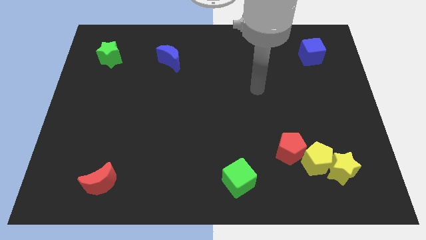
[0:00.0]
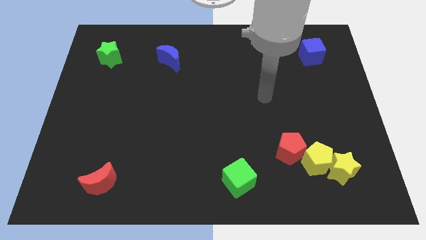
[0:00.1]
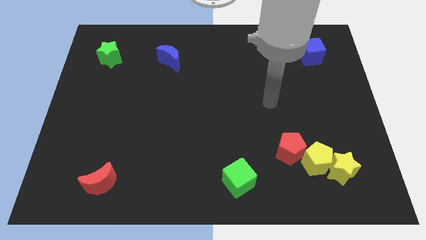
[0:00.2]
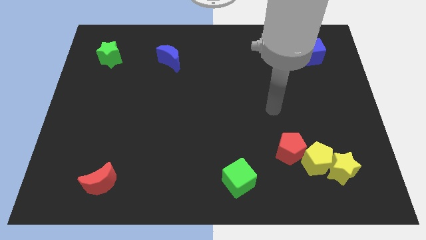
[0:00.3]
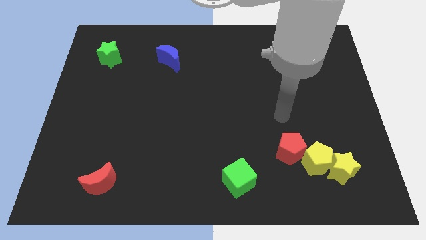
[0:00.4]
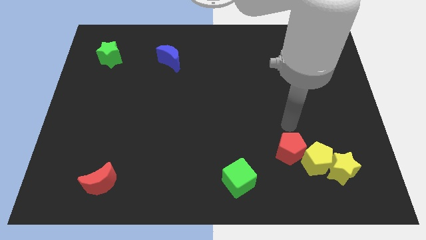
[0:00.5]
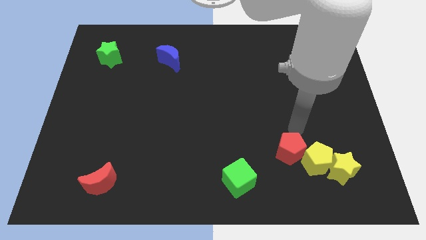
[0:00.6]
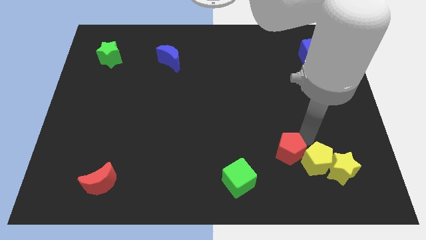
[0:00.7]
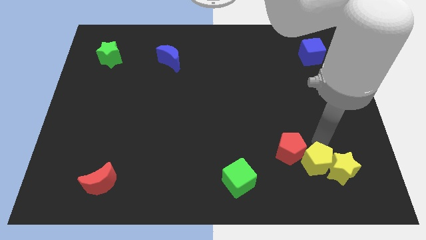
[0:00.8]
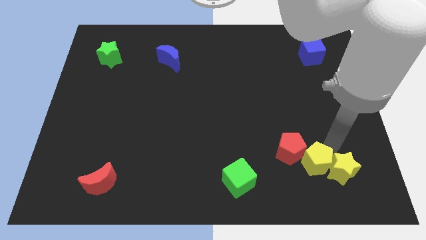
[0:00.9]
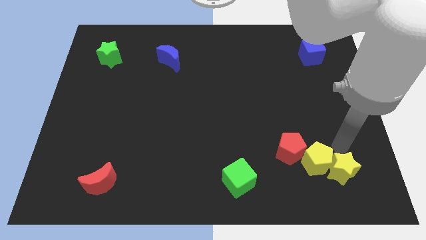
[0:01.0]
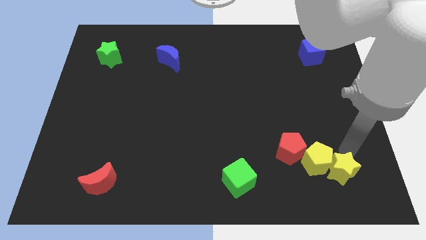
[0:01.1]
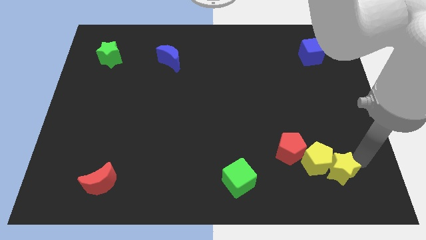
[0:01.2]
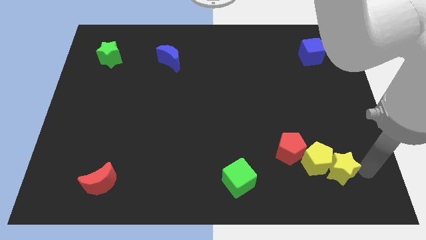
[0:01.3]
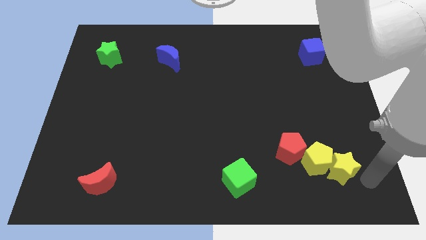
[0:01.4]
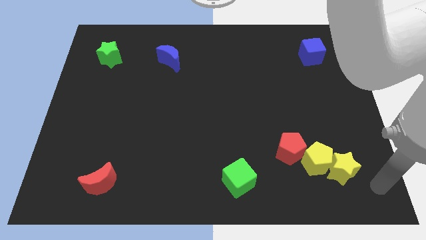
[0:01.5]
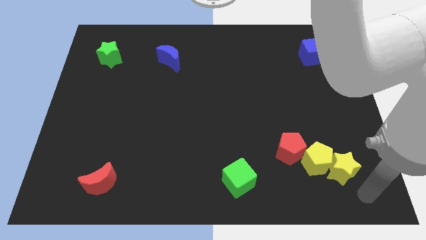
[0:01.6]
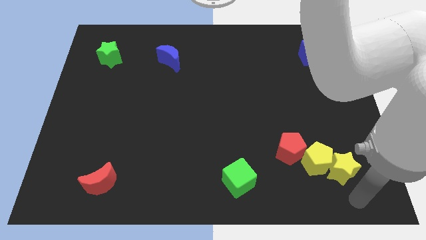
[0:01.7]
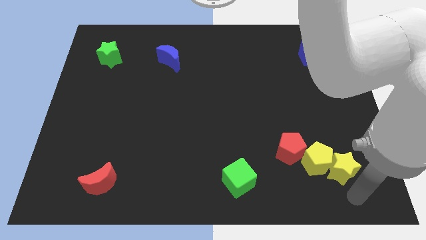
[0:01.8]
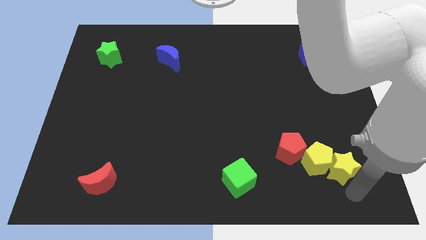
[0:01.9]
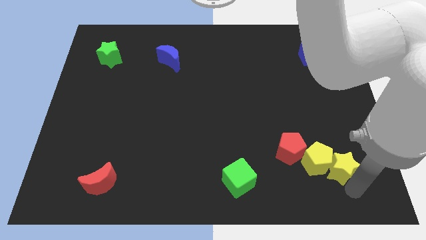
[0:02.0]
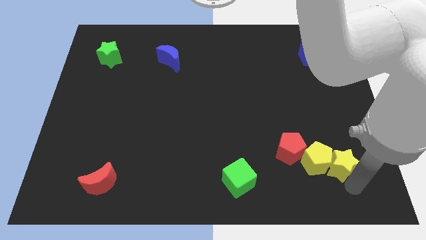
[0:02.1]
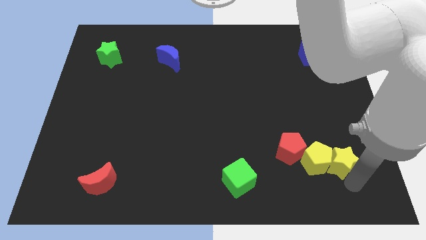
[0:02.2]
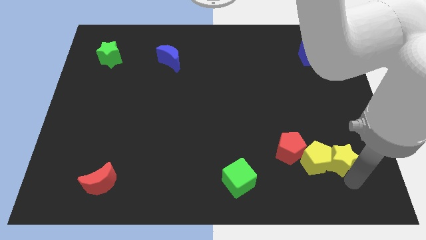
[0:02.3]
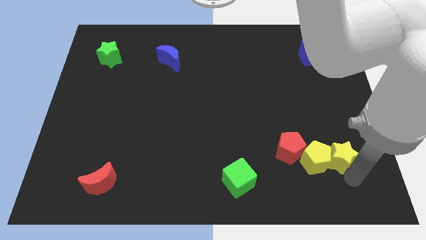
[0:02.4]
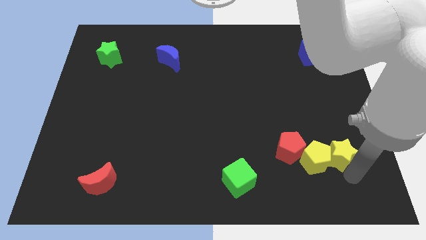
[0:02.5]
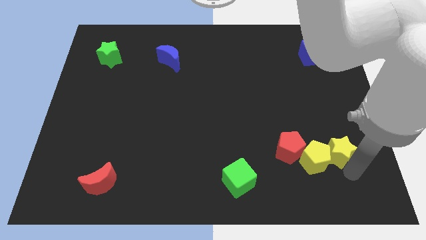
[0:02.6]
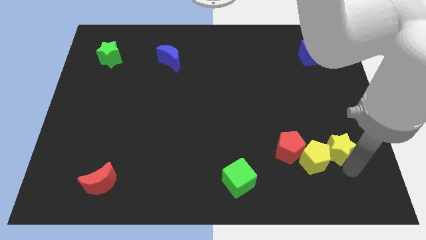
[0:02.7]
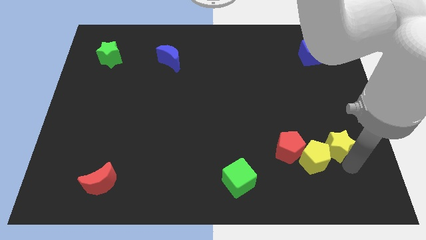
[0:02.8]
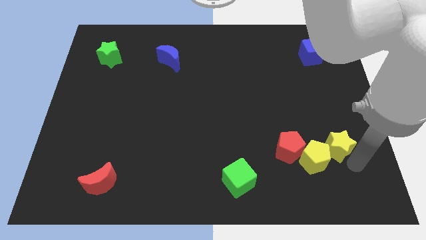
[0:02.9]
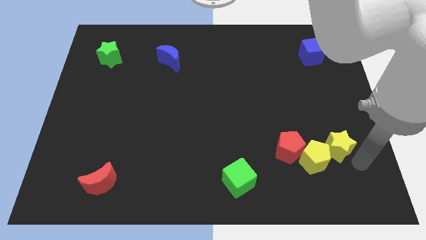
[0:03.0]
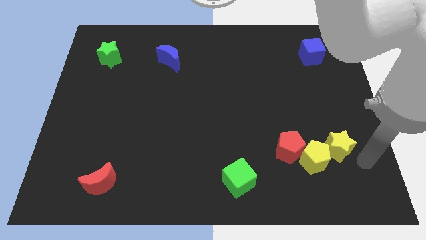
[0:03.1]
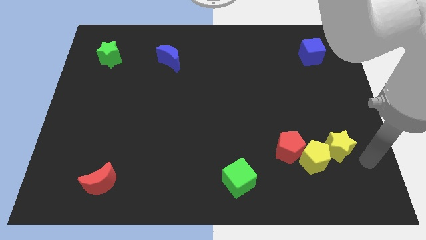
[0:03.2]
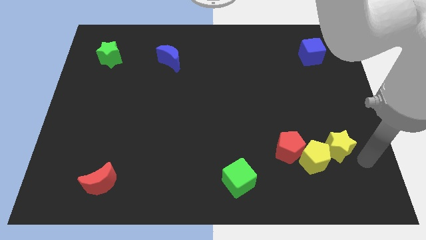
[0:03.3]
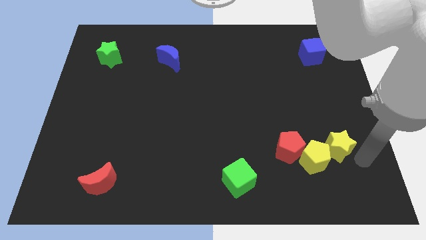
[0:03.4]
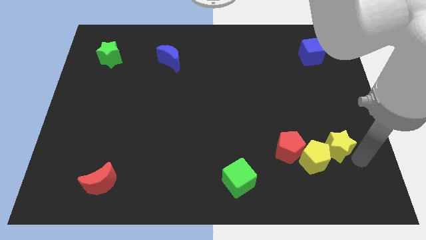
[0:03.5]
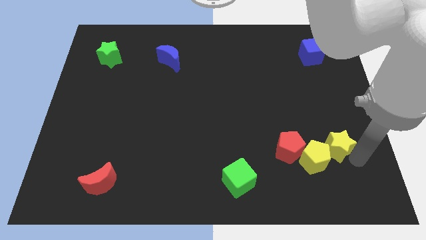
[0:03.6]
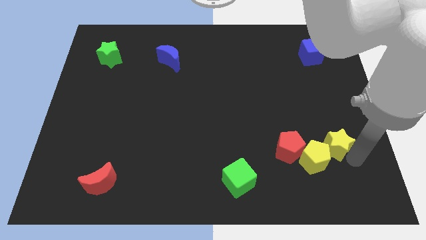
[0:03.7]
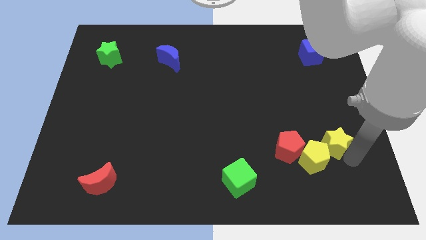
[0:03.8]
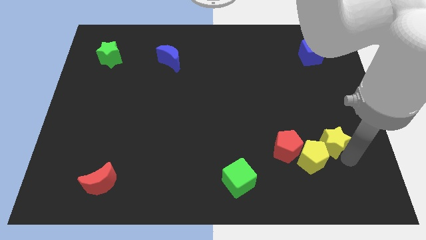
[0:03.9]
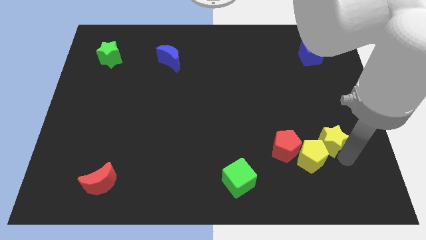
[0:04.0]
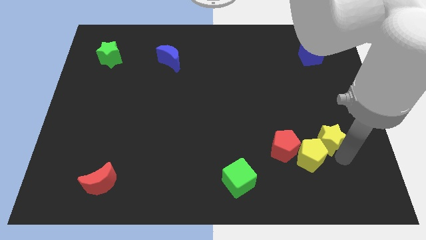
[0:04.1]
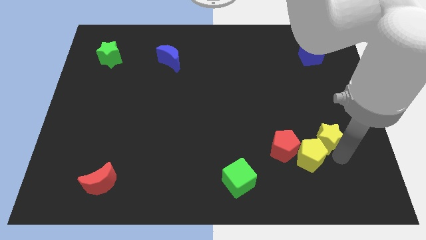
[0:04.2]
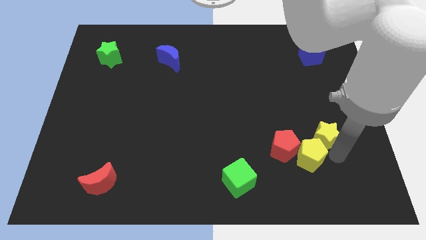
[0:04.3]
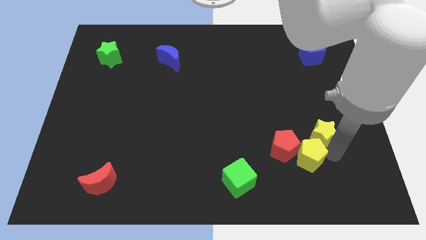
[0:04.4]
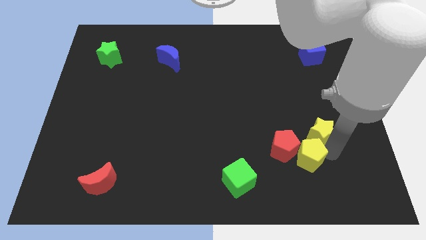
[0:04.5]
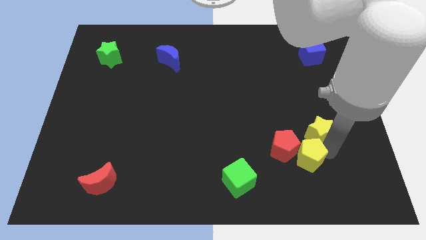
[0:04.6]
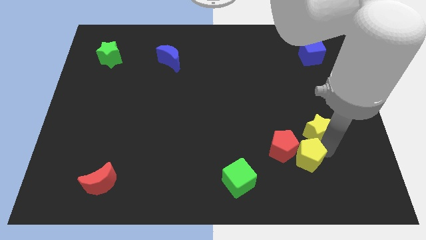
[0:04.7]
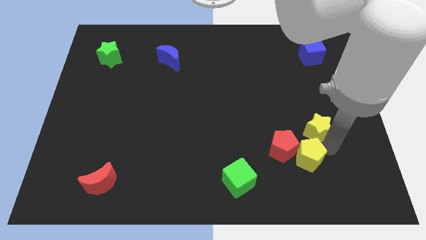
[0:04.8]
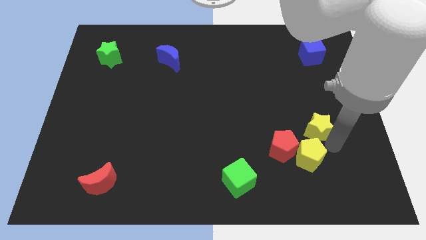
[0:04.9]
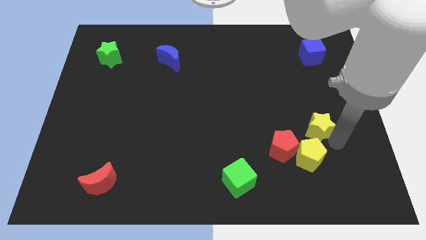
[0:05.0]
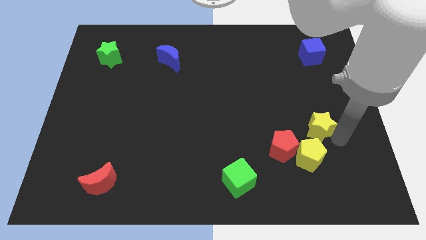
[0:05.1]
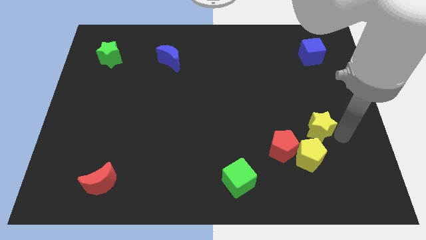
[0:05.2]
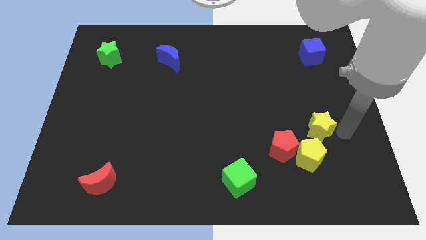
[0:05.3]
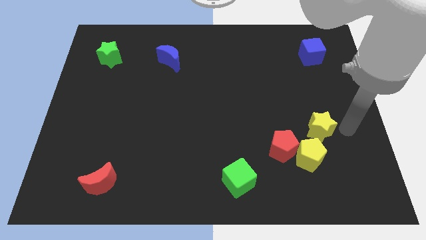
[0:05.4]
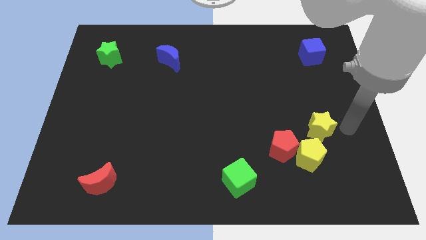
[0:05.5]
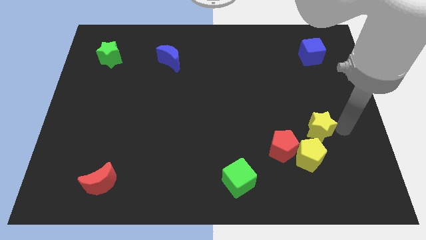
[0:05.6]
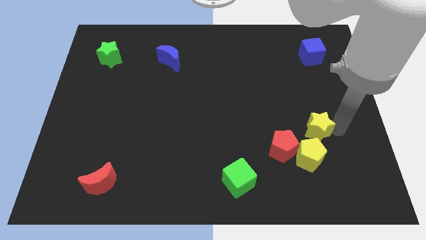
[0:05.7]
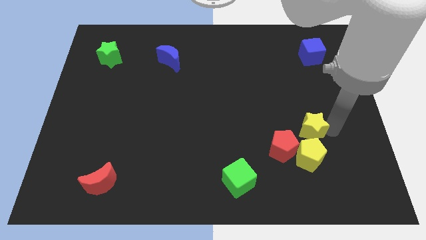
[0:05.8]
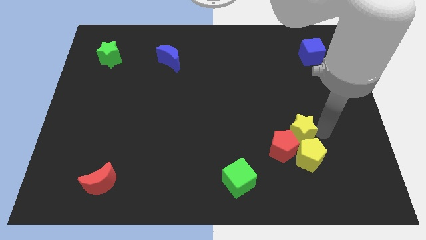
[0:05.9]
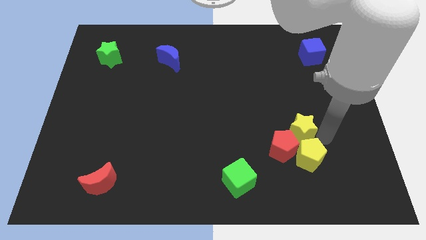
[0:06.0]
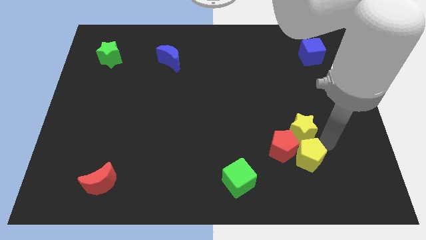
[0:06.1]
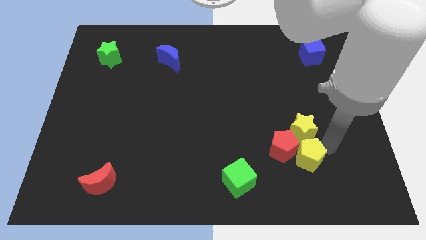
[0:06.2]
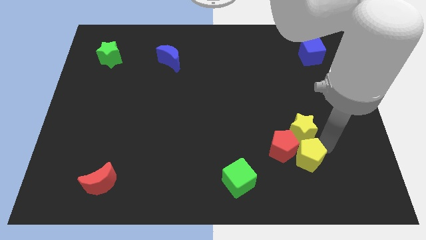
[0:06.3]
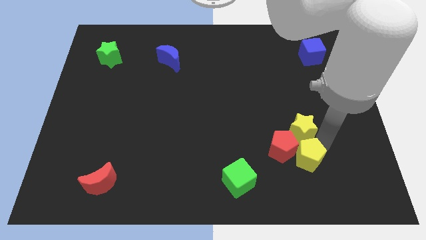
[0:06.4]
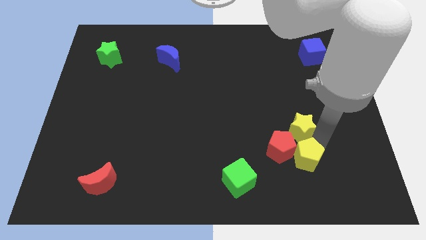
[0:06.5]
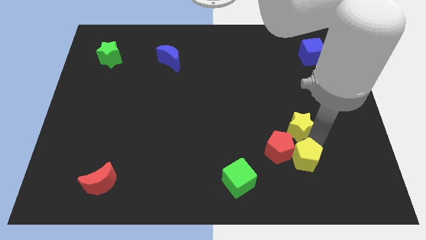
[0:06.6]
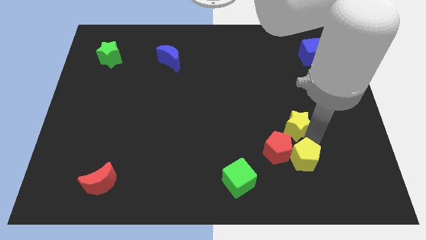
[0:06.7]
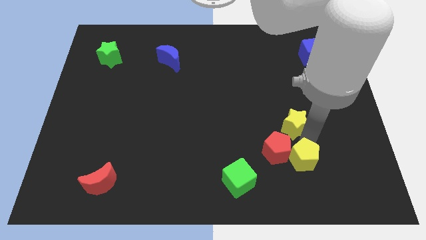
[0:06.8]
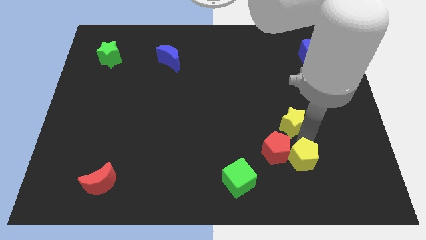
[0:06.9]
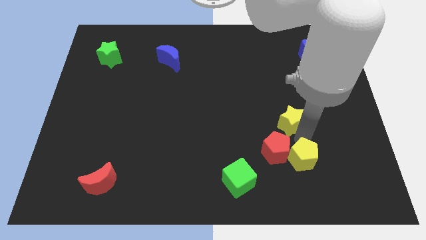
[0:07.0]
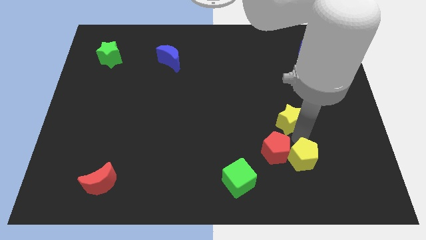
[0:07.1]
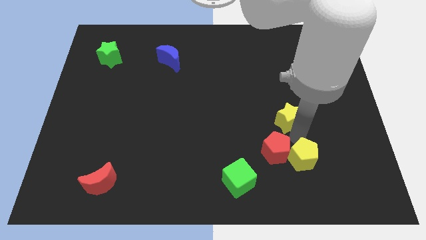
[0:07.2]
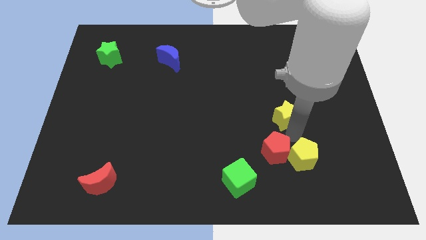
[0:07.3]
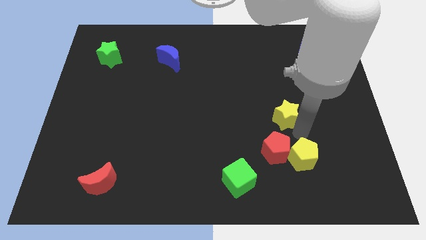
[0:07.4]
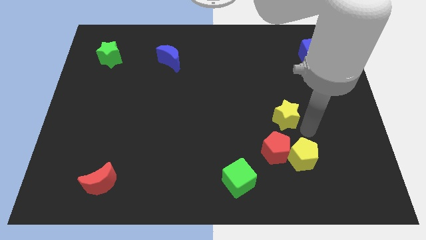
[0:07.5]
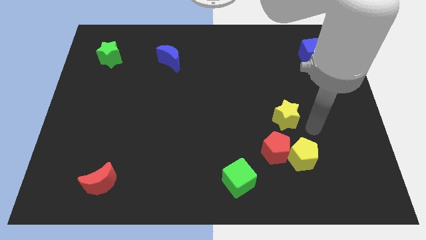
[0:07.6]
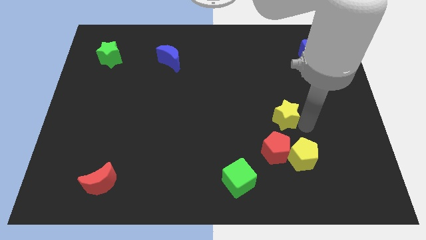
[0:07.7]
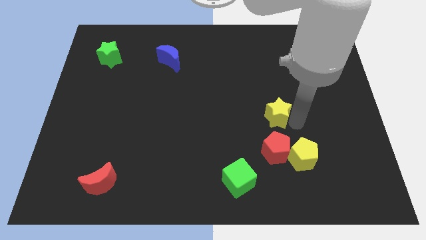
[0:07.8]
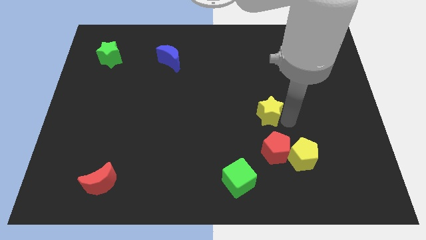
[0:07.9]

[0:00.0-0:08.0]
push the yellow star up and left
